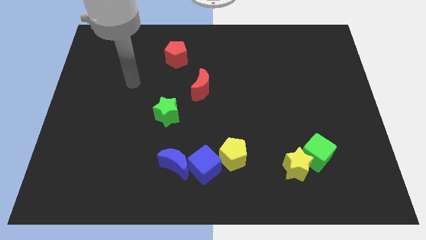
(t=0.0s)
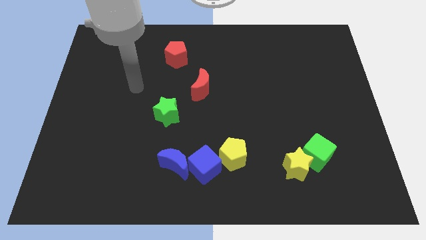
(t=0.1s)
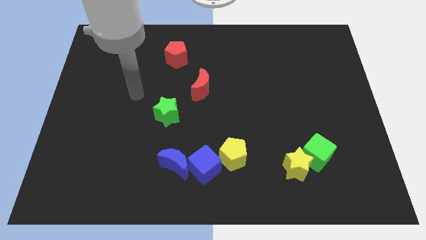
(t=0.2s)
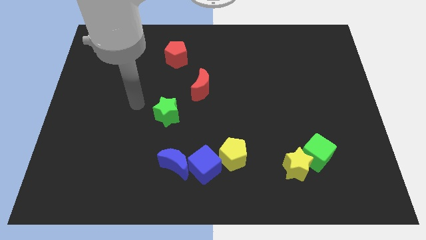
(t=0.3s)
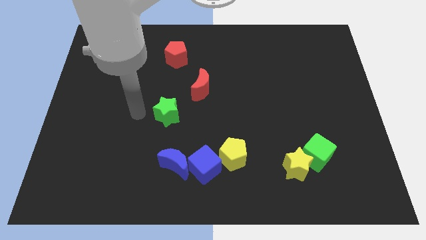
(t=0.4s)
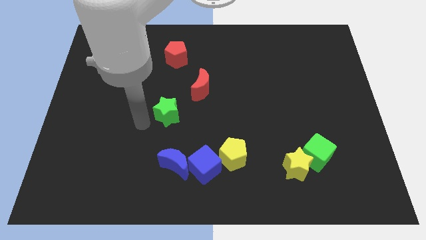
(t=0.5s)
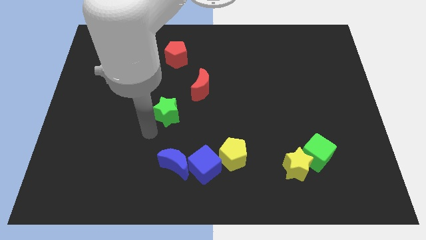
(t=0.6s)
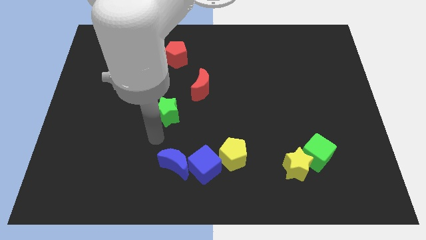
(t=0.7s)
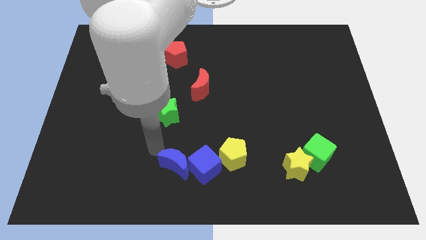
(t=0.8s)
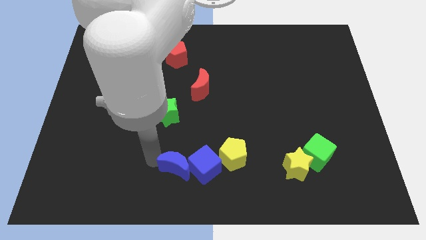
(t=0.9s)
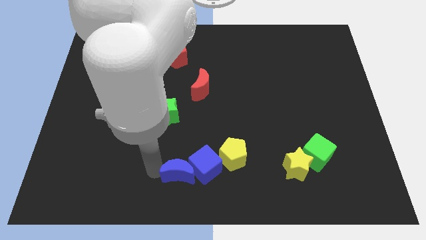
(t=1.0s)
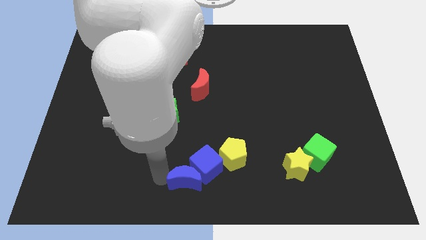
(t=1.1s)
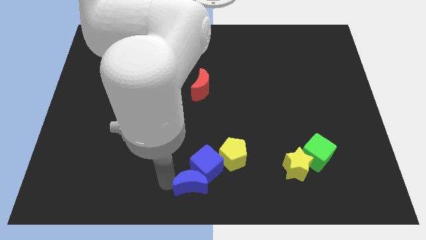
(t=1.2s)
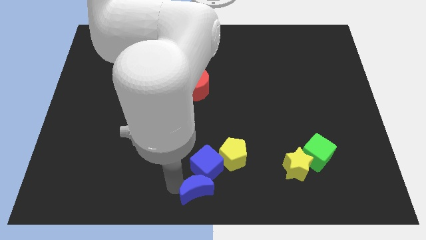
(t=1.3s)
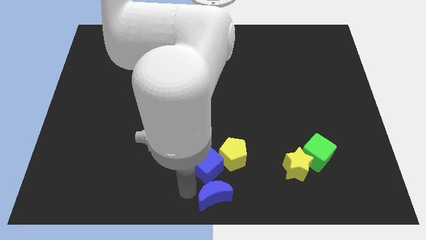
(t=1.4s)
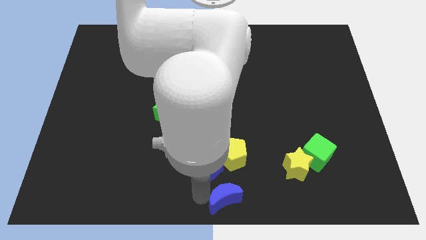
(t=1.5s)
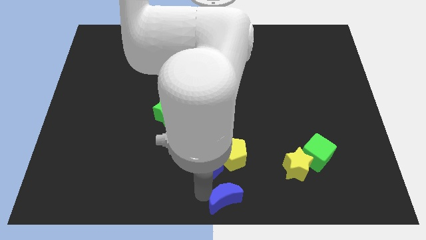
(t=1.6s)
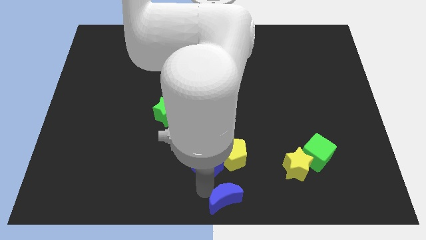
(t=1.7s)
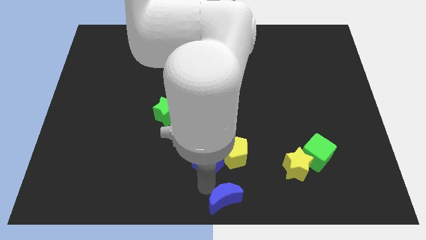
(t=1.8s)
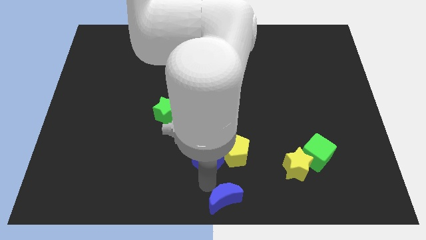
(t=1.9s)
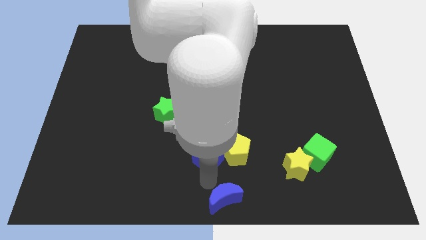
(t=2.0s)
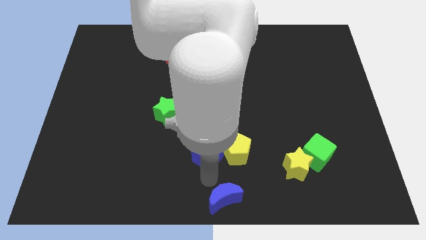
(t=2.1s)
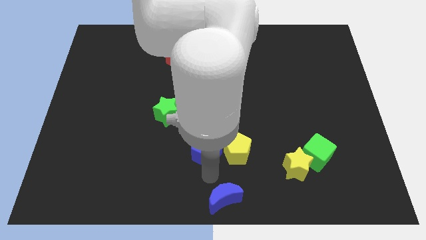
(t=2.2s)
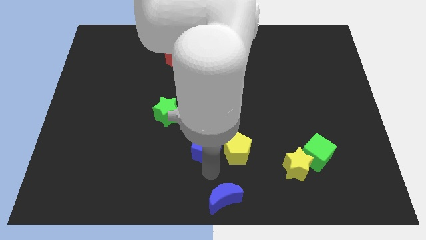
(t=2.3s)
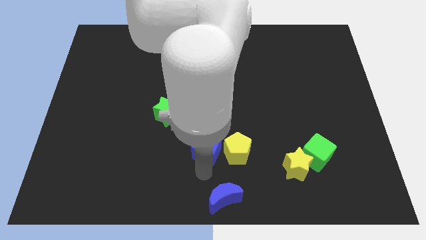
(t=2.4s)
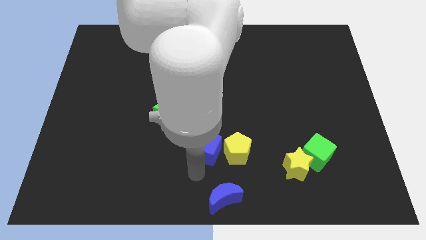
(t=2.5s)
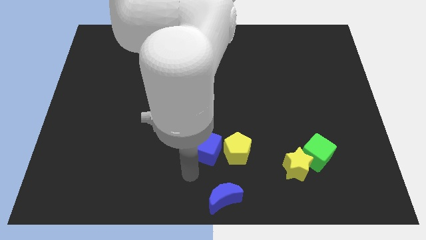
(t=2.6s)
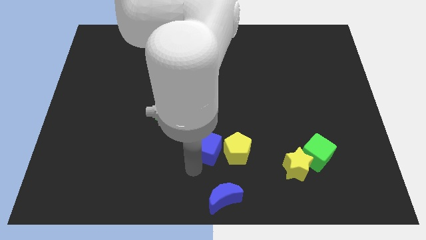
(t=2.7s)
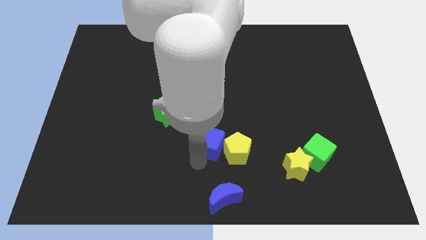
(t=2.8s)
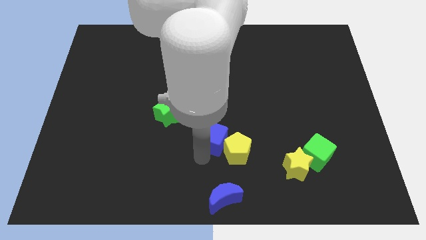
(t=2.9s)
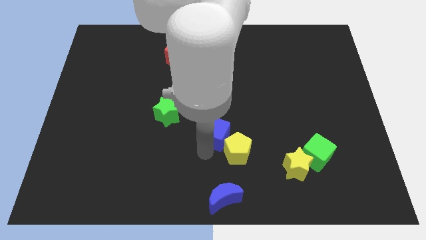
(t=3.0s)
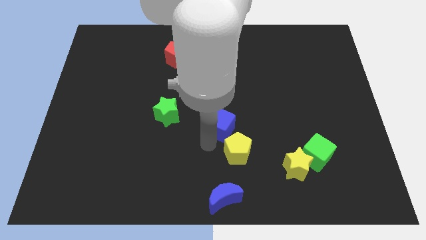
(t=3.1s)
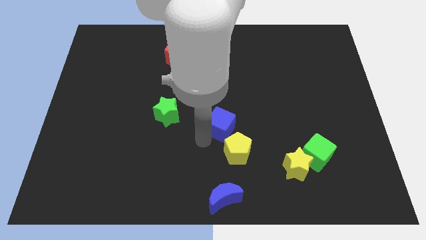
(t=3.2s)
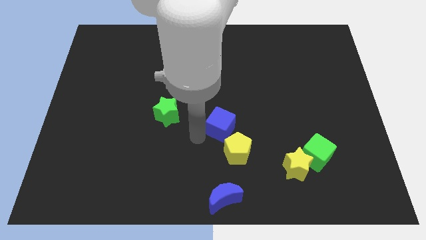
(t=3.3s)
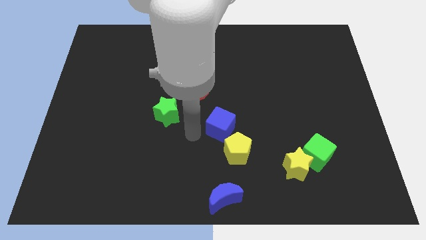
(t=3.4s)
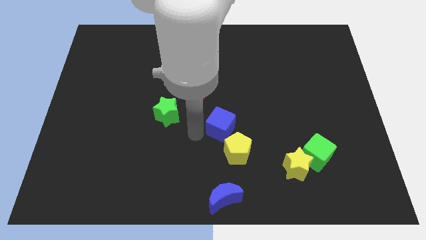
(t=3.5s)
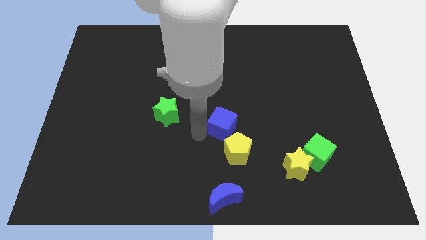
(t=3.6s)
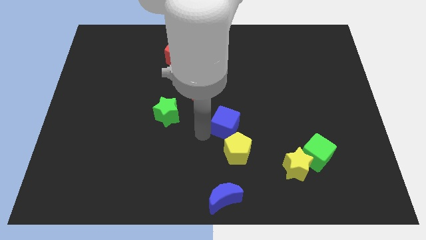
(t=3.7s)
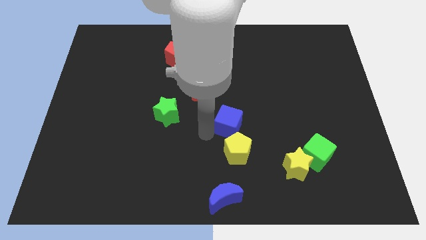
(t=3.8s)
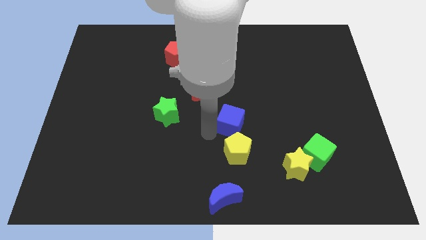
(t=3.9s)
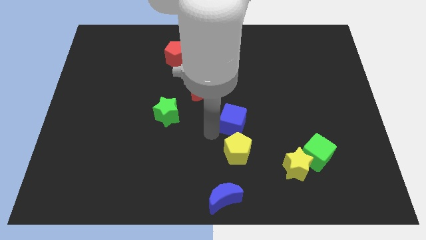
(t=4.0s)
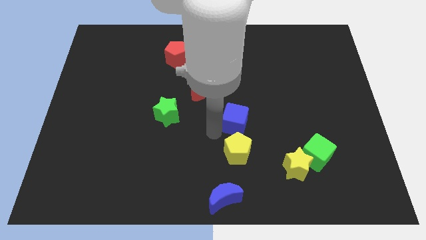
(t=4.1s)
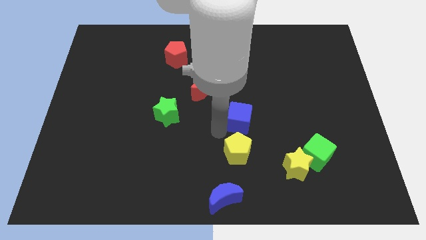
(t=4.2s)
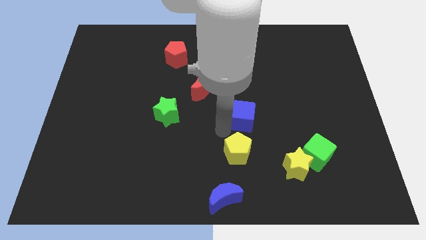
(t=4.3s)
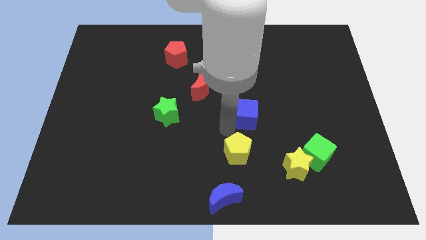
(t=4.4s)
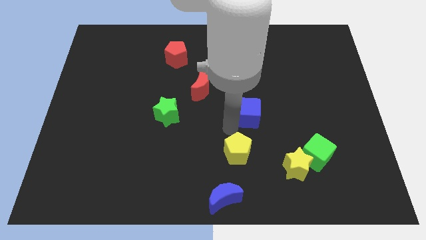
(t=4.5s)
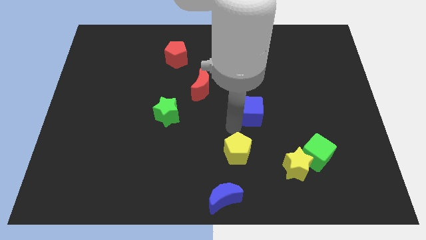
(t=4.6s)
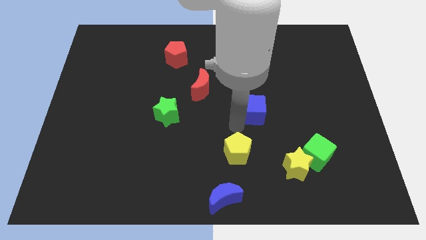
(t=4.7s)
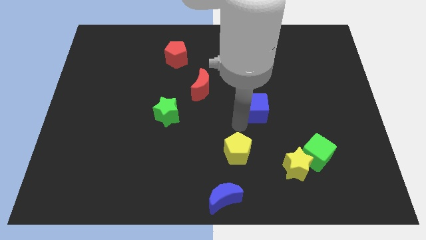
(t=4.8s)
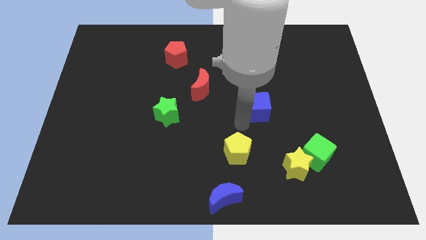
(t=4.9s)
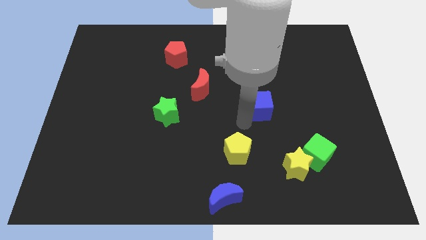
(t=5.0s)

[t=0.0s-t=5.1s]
push the blue cube upwards and right

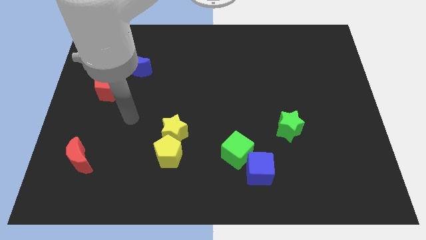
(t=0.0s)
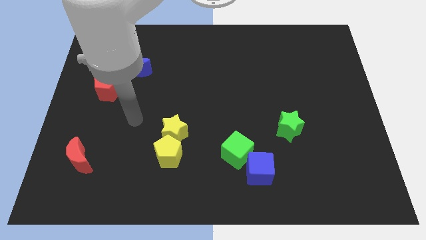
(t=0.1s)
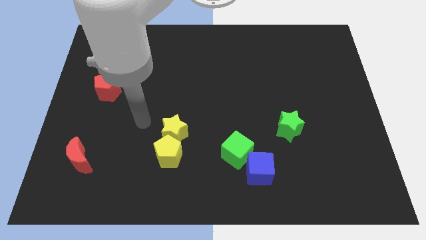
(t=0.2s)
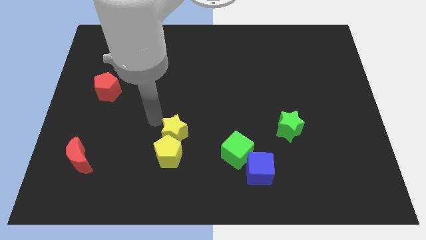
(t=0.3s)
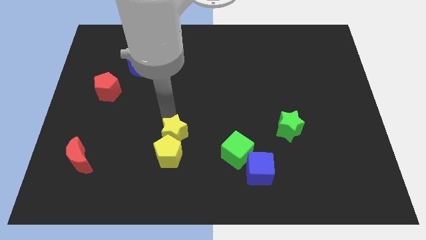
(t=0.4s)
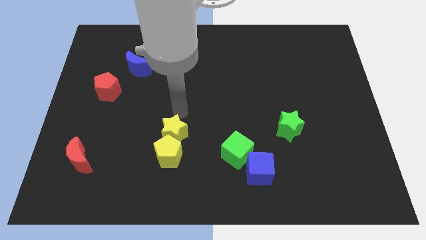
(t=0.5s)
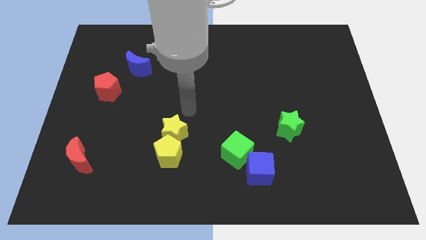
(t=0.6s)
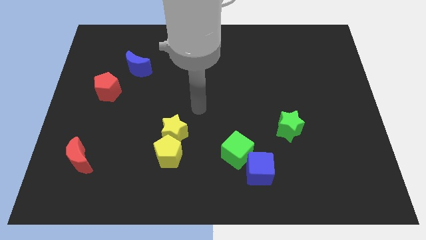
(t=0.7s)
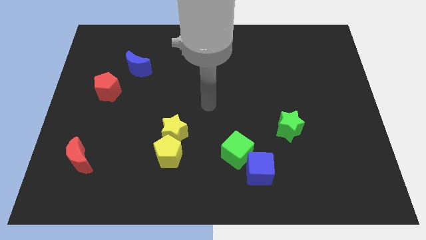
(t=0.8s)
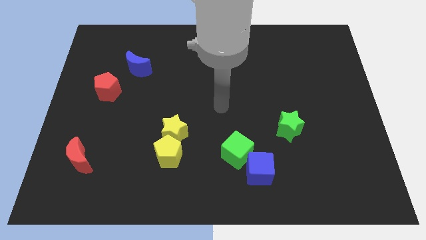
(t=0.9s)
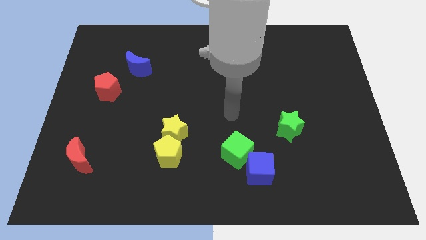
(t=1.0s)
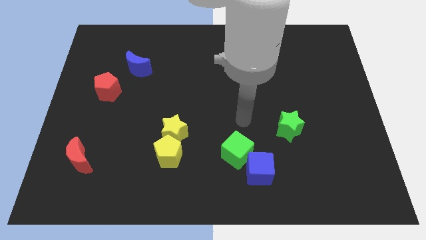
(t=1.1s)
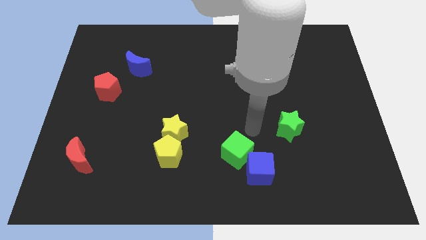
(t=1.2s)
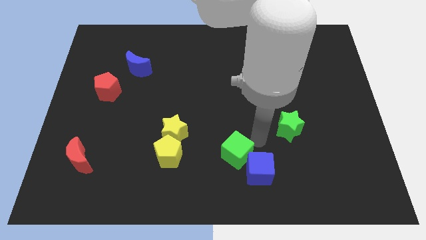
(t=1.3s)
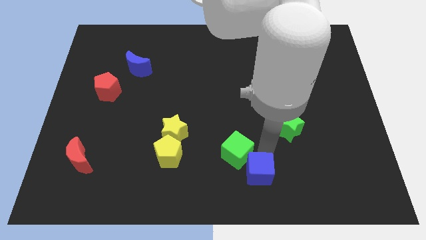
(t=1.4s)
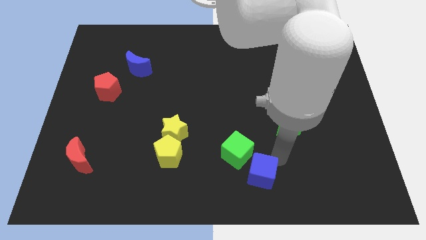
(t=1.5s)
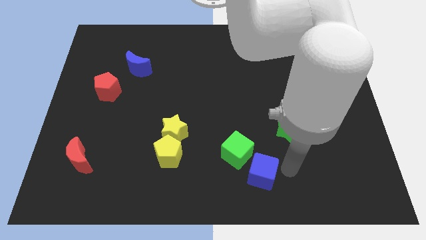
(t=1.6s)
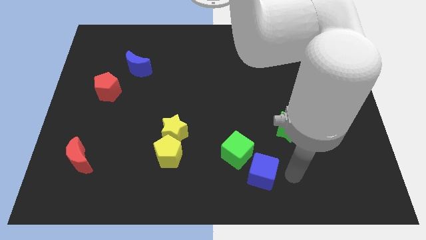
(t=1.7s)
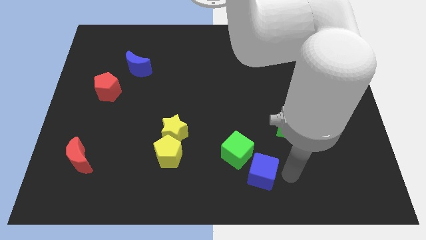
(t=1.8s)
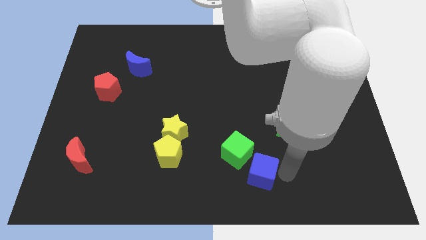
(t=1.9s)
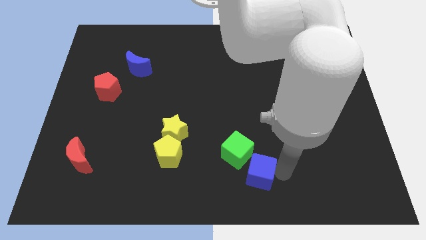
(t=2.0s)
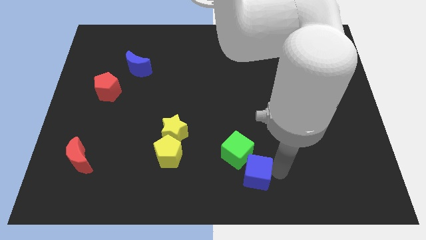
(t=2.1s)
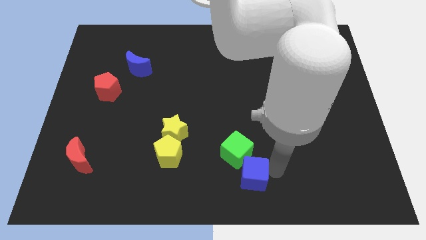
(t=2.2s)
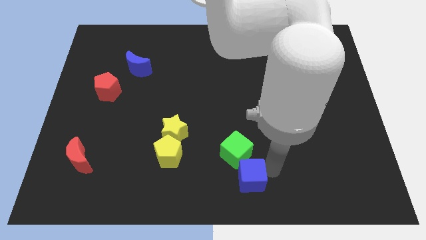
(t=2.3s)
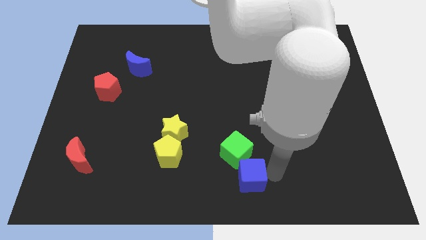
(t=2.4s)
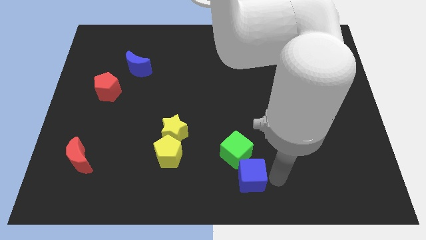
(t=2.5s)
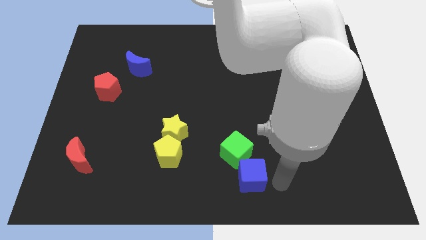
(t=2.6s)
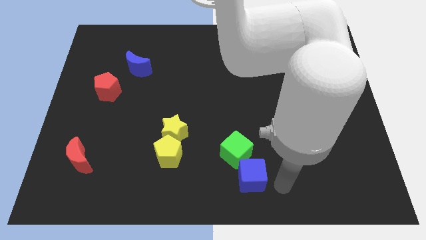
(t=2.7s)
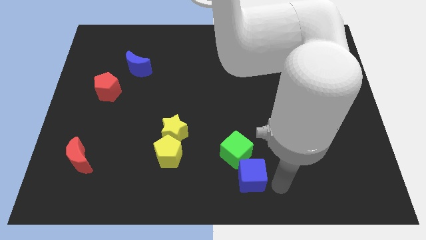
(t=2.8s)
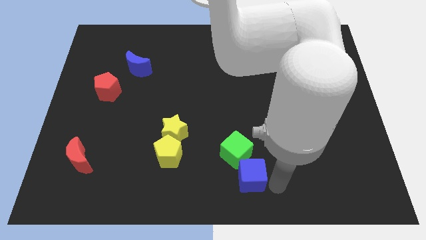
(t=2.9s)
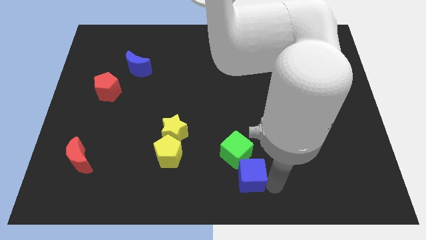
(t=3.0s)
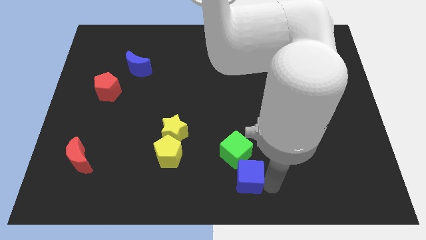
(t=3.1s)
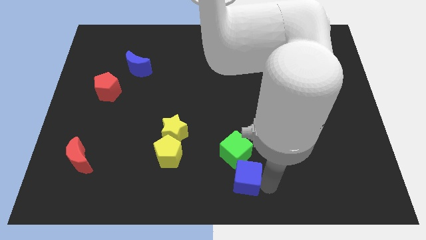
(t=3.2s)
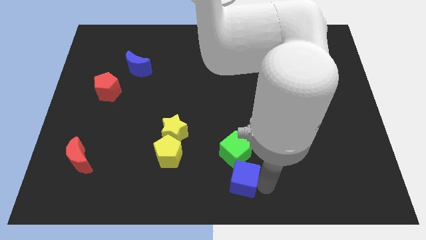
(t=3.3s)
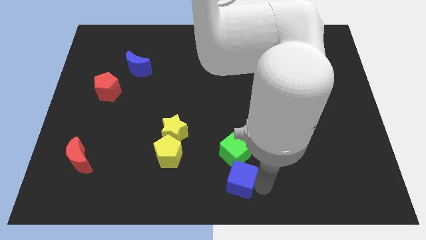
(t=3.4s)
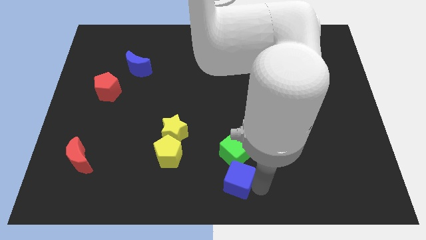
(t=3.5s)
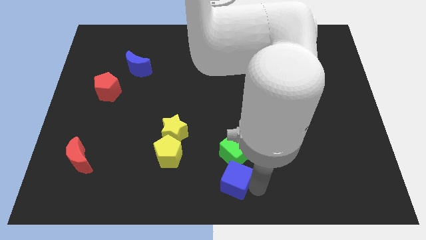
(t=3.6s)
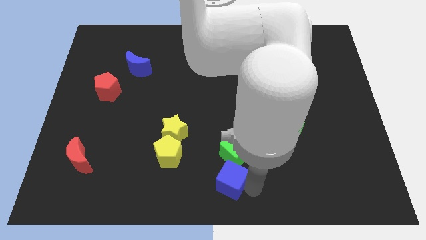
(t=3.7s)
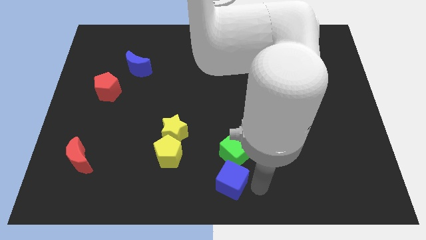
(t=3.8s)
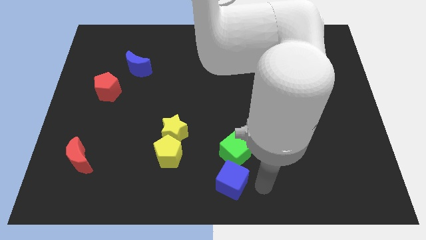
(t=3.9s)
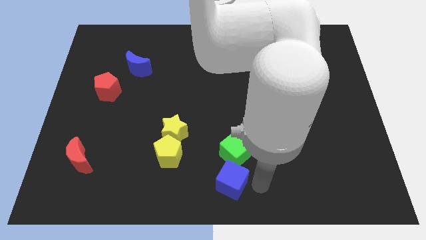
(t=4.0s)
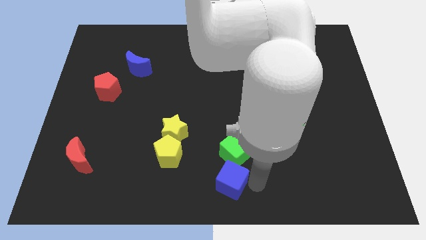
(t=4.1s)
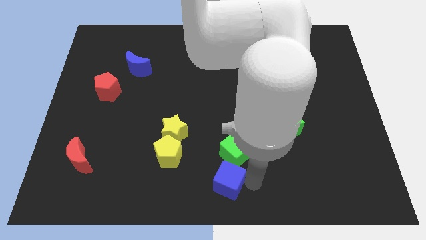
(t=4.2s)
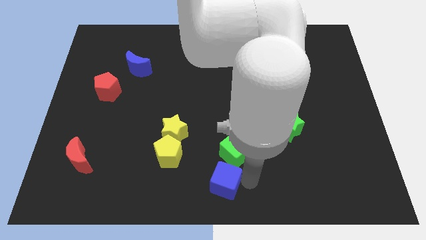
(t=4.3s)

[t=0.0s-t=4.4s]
slide the blue cube to the left somewhat
